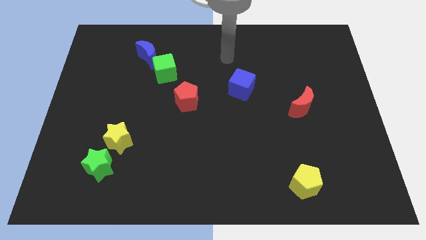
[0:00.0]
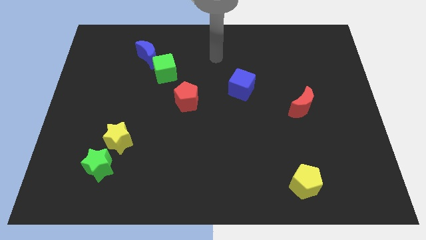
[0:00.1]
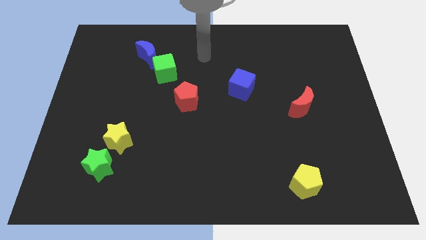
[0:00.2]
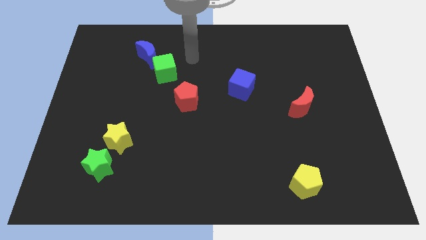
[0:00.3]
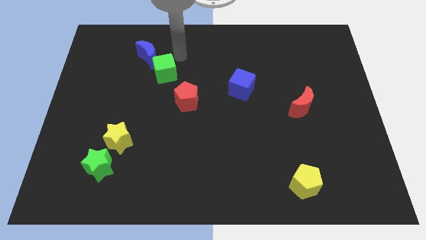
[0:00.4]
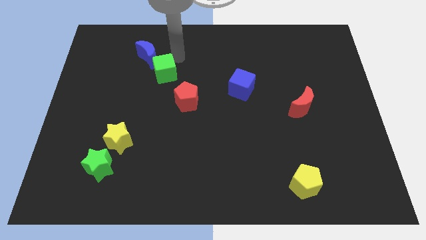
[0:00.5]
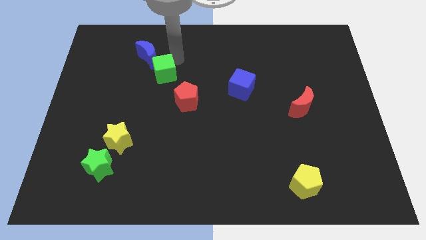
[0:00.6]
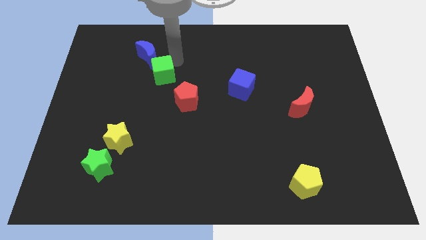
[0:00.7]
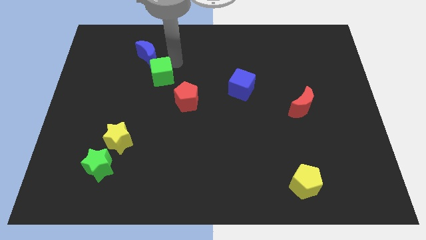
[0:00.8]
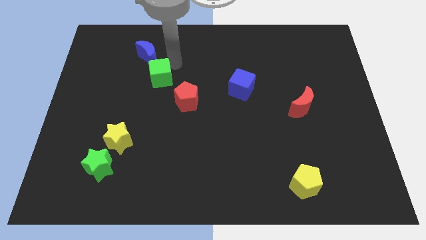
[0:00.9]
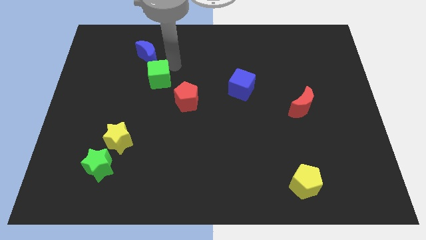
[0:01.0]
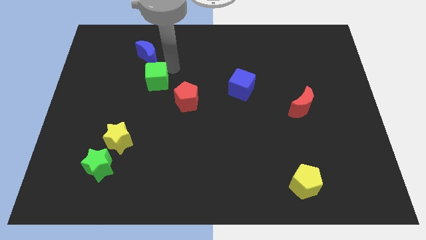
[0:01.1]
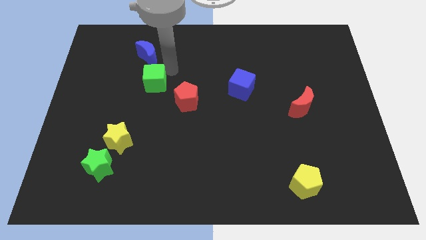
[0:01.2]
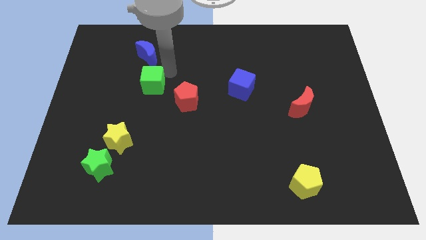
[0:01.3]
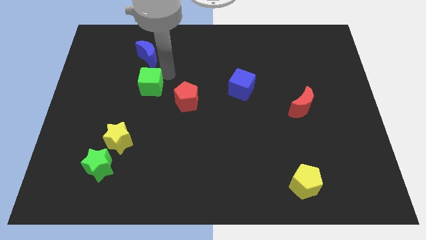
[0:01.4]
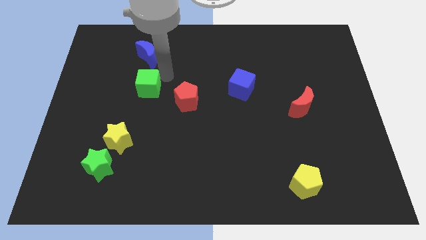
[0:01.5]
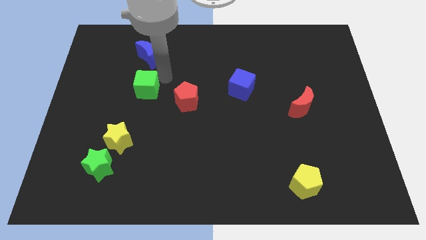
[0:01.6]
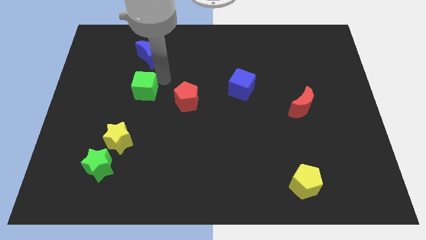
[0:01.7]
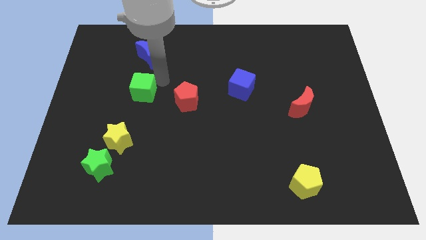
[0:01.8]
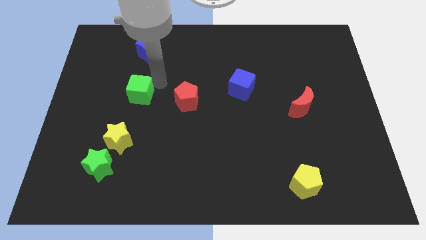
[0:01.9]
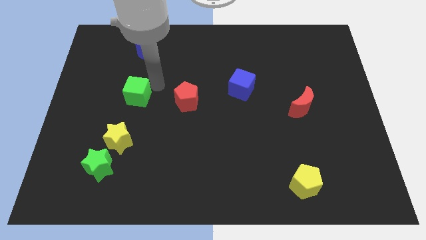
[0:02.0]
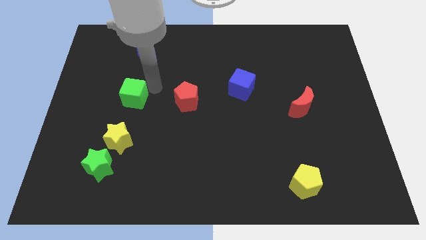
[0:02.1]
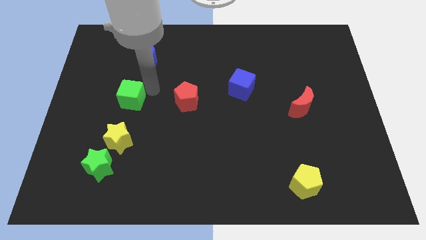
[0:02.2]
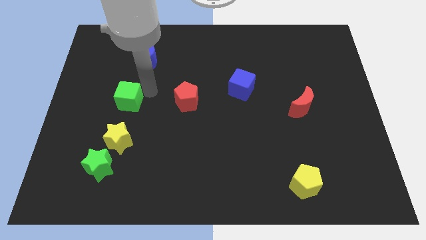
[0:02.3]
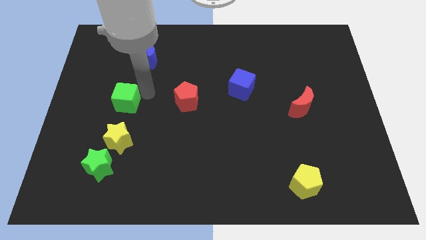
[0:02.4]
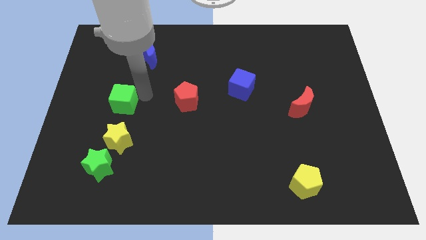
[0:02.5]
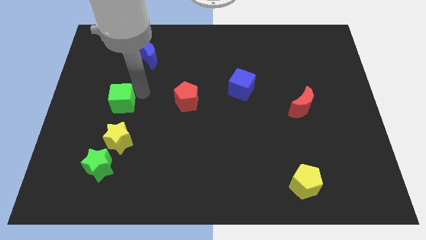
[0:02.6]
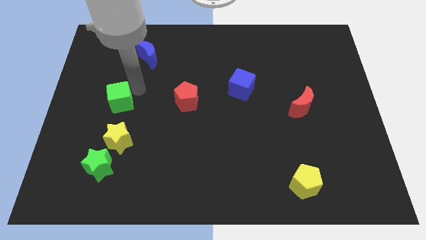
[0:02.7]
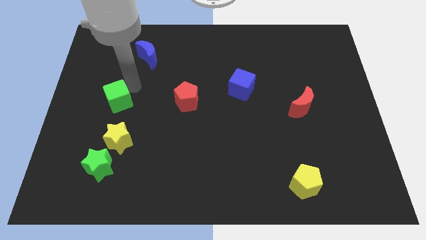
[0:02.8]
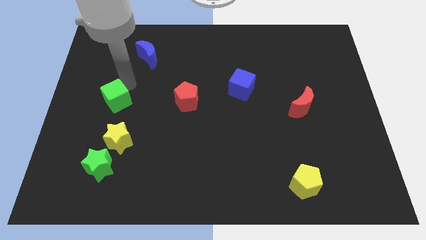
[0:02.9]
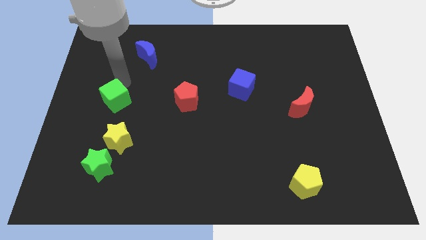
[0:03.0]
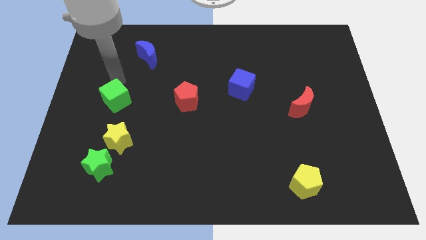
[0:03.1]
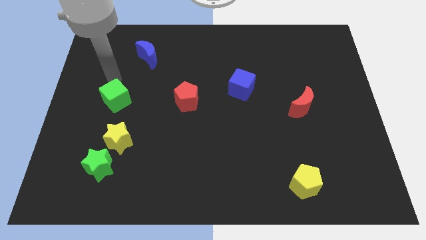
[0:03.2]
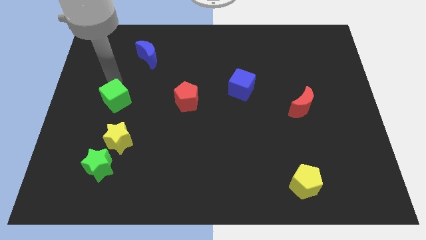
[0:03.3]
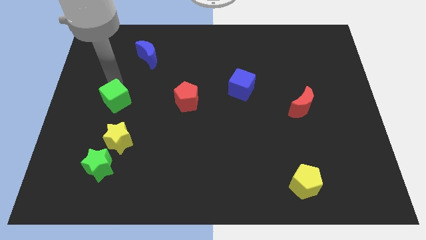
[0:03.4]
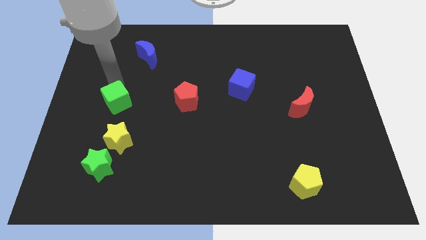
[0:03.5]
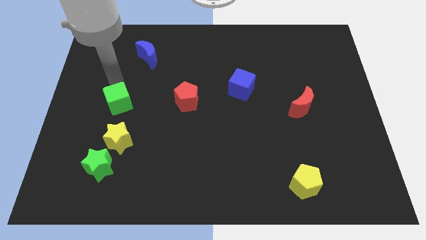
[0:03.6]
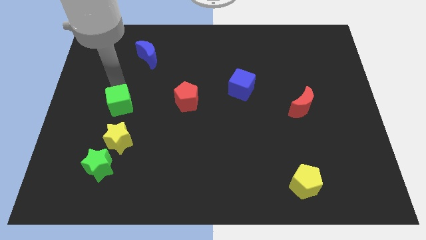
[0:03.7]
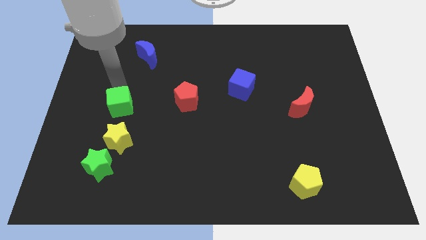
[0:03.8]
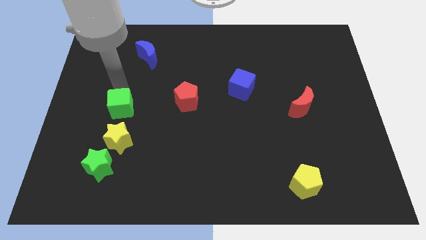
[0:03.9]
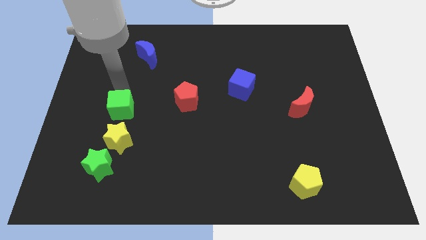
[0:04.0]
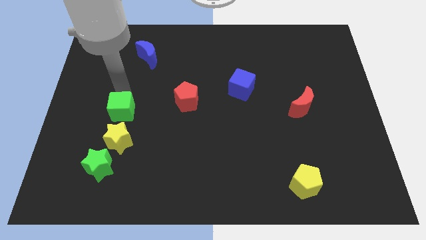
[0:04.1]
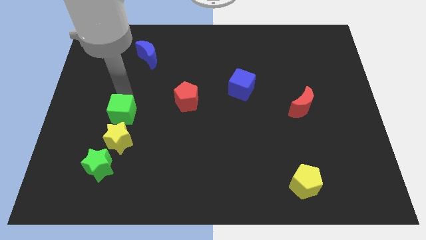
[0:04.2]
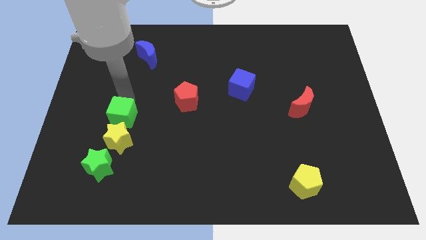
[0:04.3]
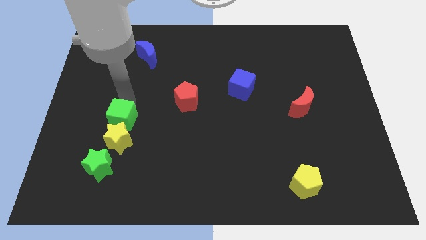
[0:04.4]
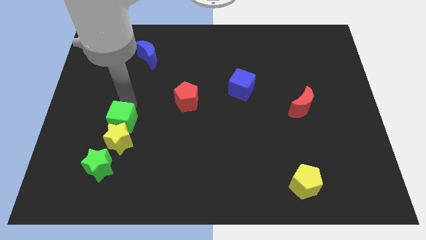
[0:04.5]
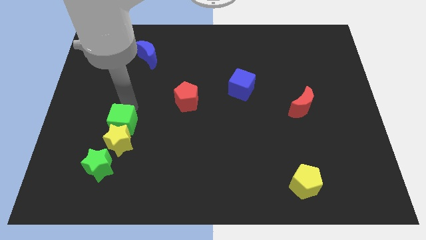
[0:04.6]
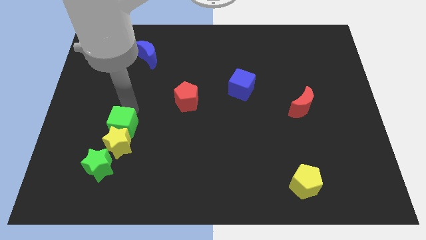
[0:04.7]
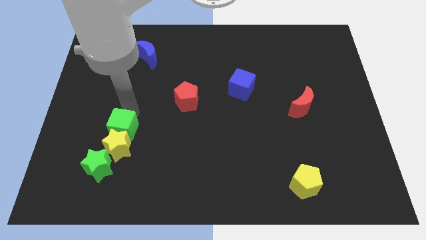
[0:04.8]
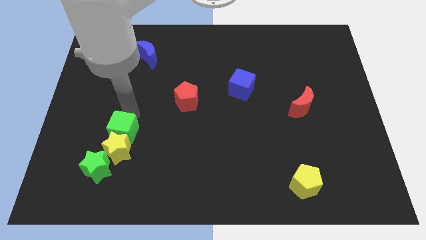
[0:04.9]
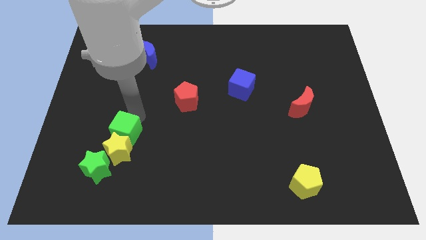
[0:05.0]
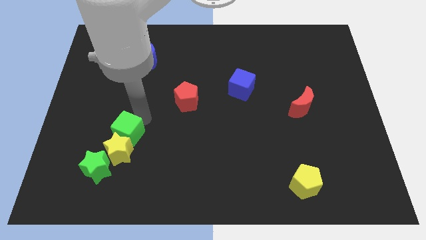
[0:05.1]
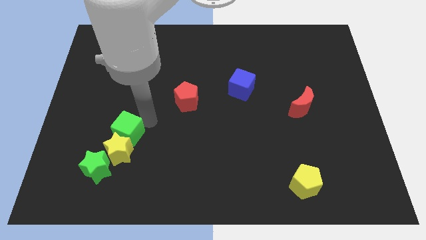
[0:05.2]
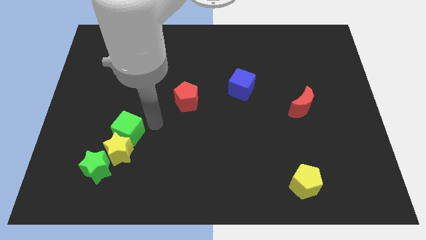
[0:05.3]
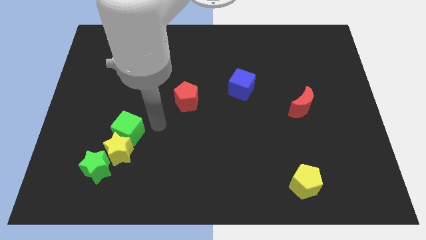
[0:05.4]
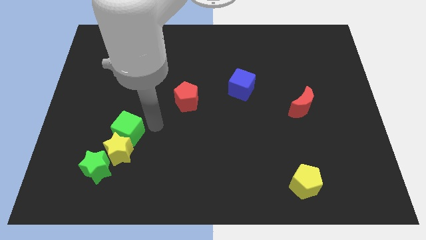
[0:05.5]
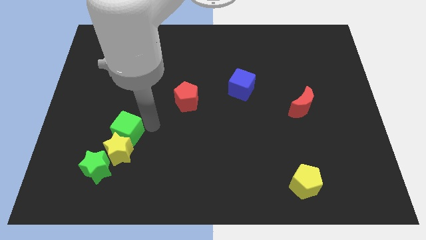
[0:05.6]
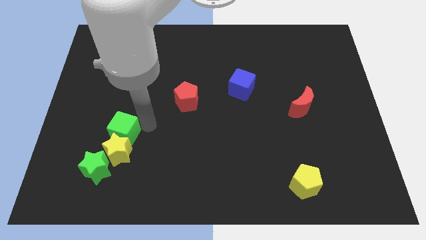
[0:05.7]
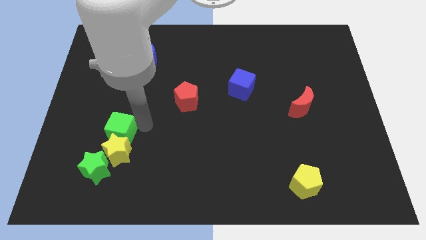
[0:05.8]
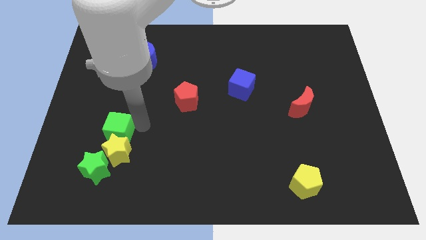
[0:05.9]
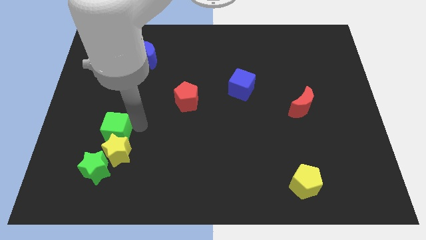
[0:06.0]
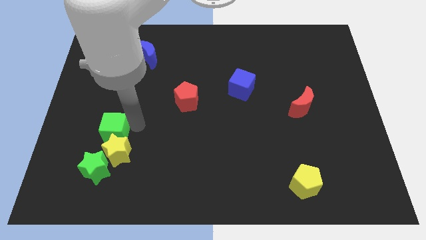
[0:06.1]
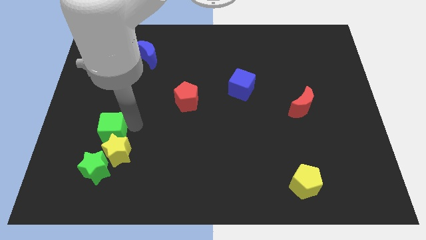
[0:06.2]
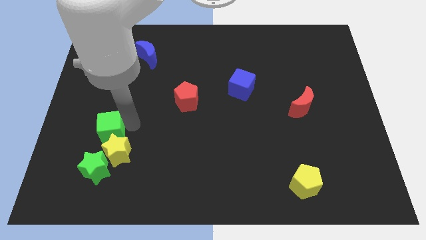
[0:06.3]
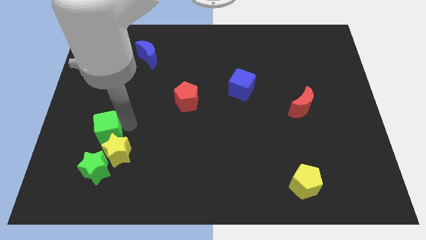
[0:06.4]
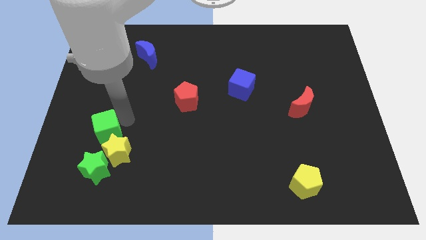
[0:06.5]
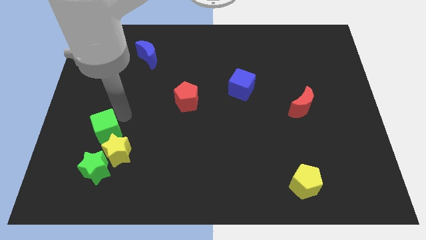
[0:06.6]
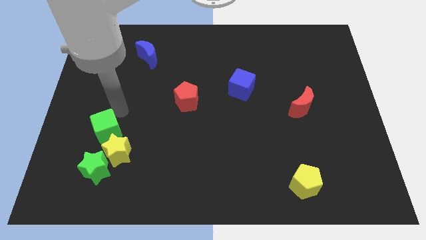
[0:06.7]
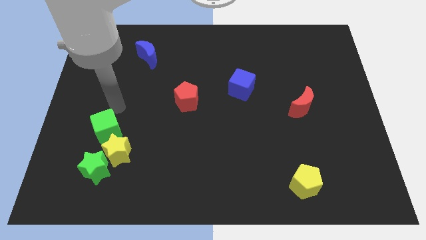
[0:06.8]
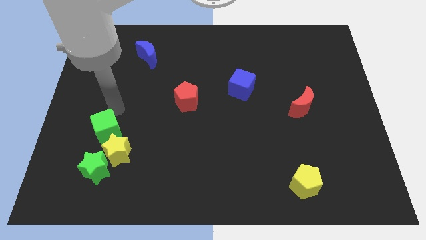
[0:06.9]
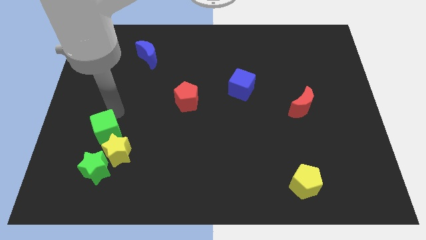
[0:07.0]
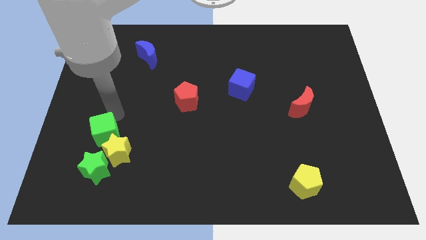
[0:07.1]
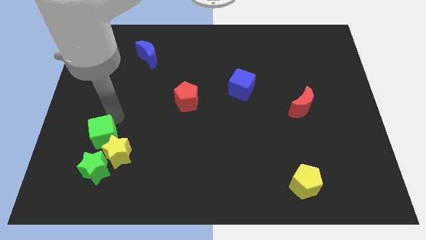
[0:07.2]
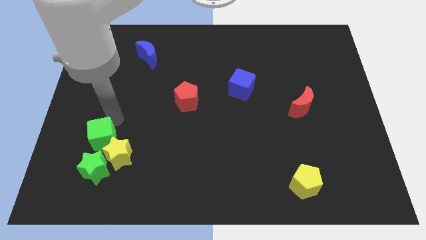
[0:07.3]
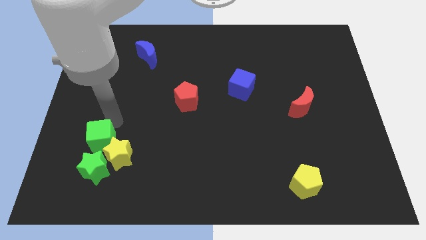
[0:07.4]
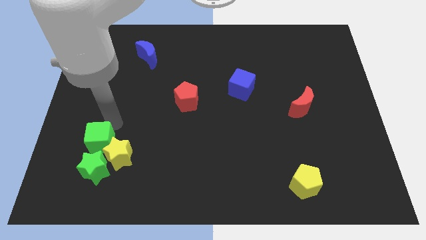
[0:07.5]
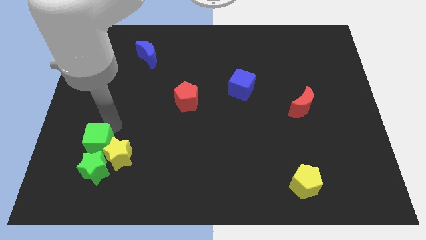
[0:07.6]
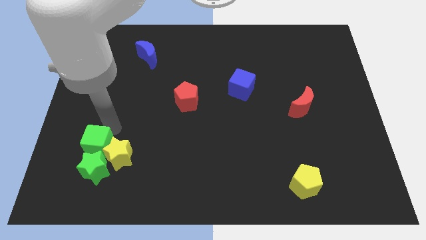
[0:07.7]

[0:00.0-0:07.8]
move the green cube towards the green star

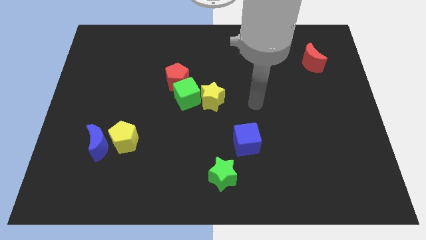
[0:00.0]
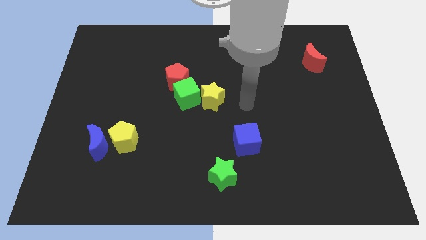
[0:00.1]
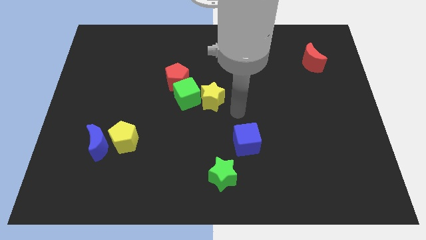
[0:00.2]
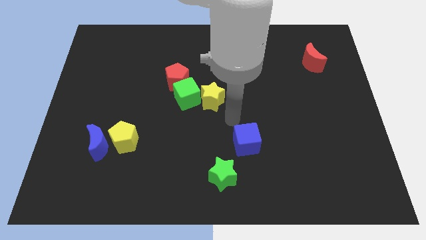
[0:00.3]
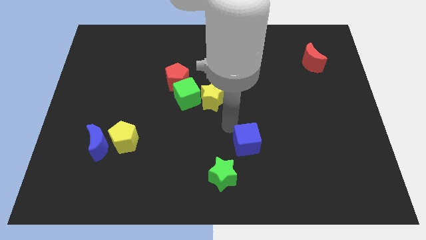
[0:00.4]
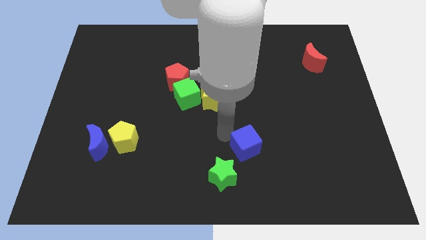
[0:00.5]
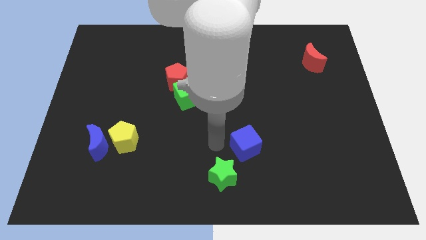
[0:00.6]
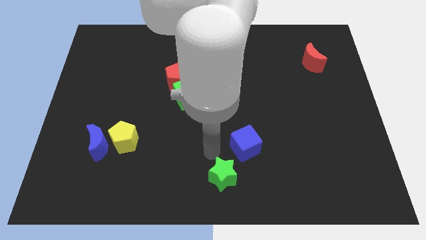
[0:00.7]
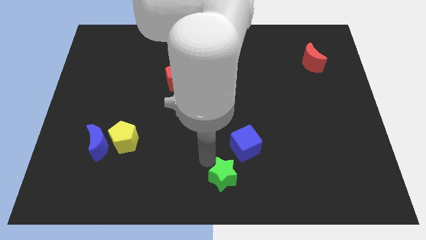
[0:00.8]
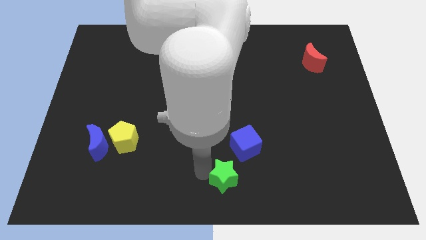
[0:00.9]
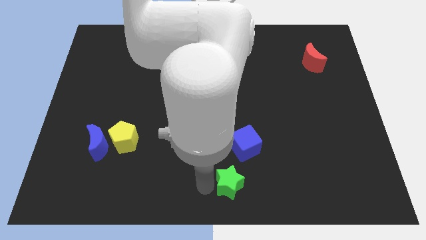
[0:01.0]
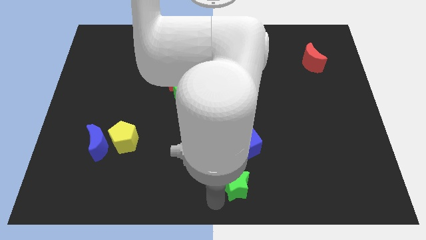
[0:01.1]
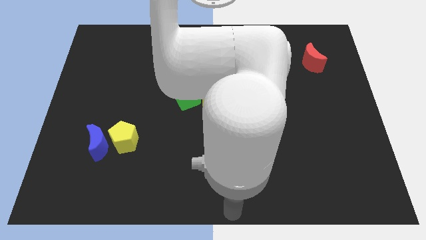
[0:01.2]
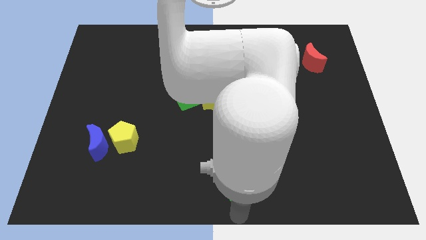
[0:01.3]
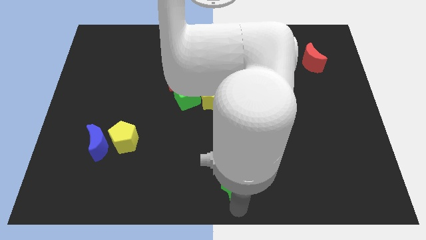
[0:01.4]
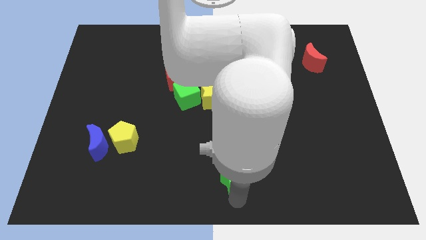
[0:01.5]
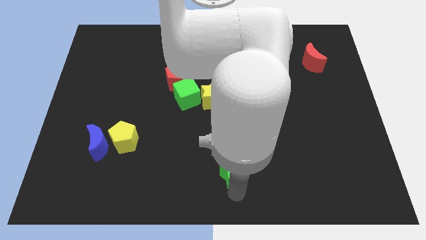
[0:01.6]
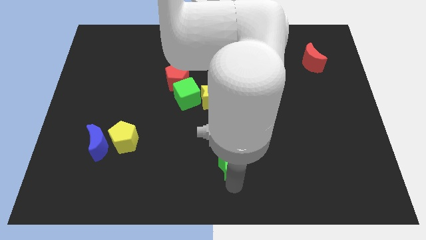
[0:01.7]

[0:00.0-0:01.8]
move the green star close to the blue cube
